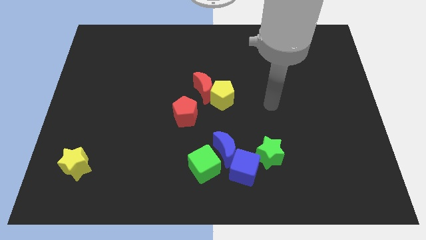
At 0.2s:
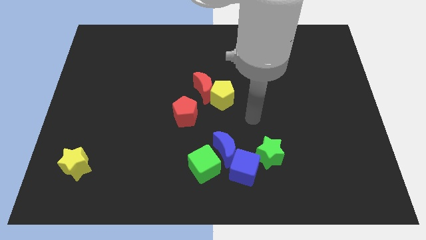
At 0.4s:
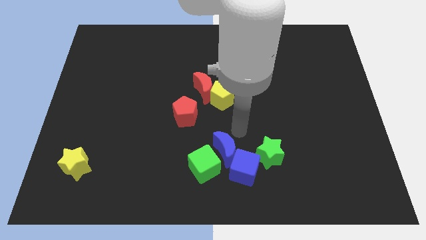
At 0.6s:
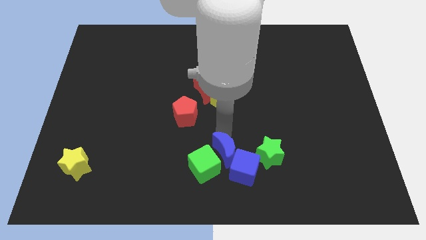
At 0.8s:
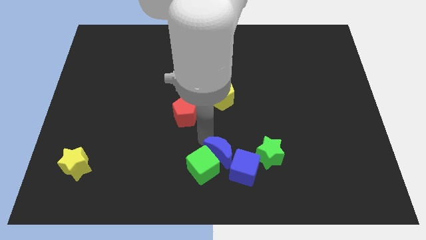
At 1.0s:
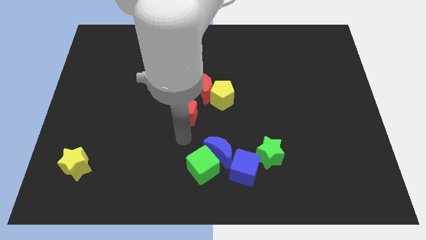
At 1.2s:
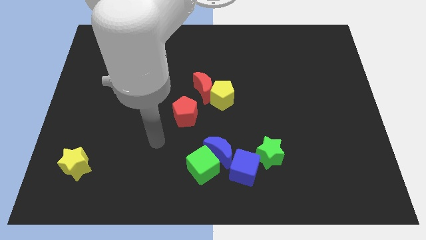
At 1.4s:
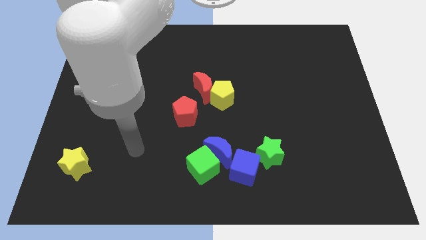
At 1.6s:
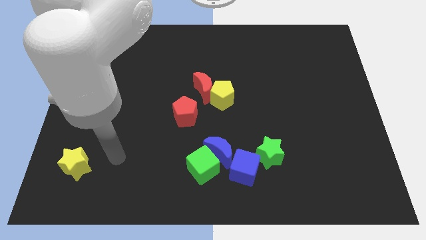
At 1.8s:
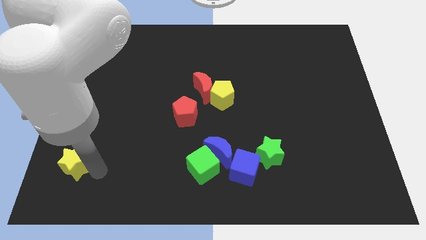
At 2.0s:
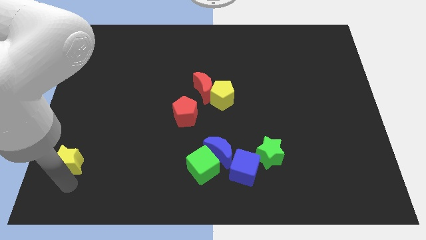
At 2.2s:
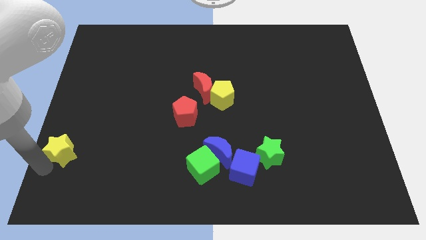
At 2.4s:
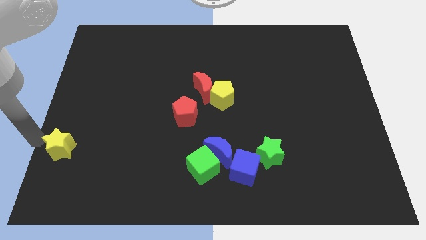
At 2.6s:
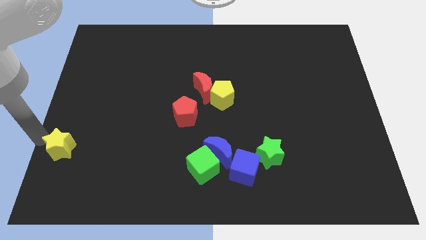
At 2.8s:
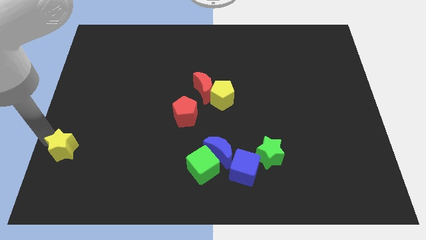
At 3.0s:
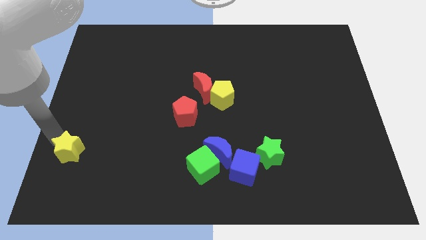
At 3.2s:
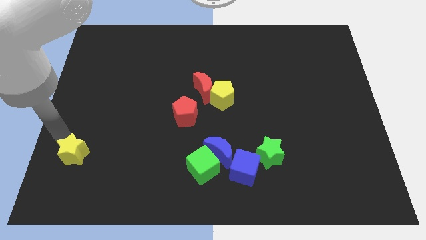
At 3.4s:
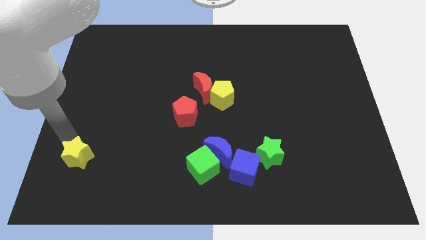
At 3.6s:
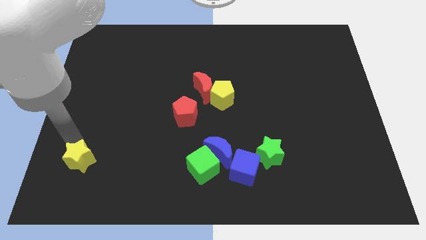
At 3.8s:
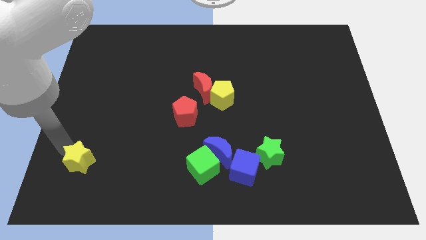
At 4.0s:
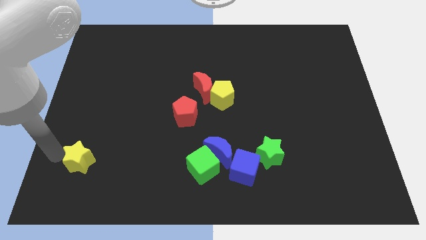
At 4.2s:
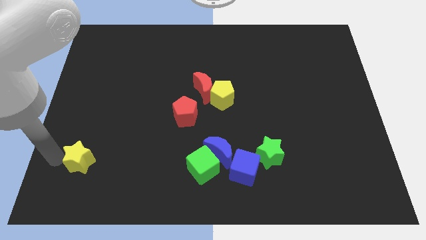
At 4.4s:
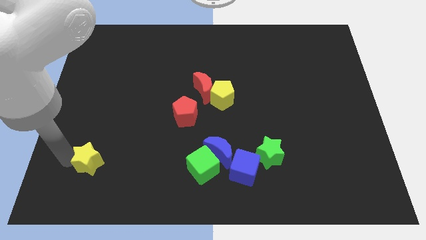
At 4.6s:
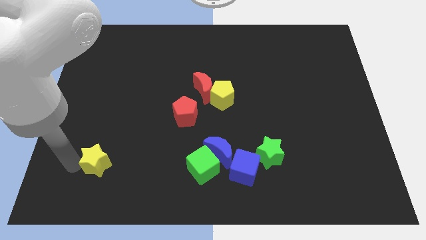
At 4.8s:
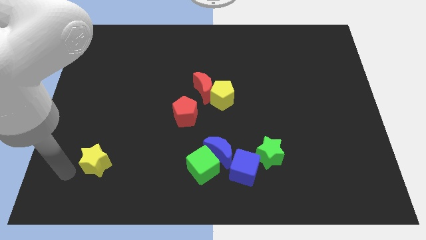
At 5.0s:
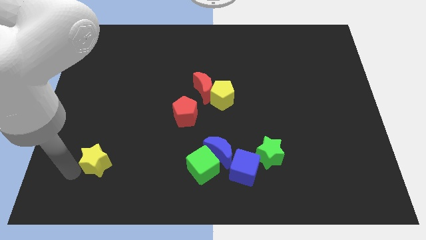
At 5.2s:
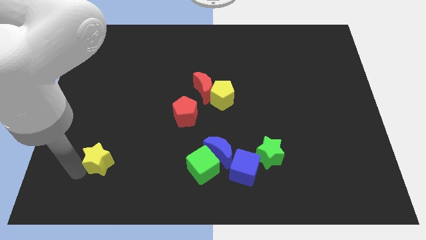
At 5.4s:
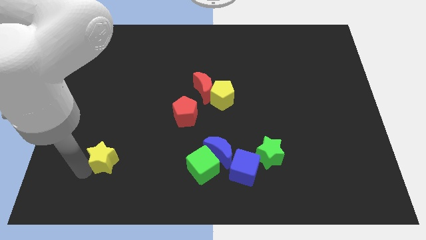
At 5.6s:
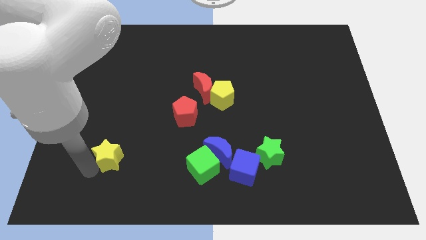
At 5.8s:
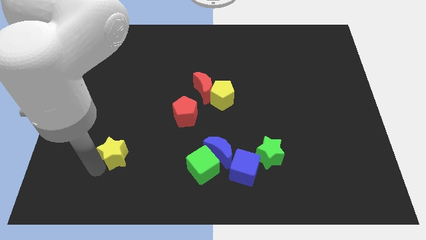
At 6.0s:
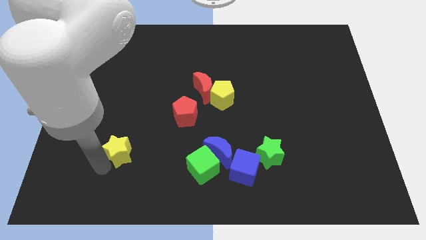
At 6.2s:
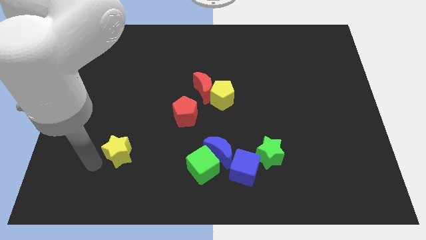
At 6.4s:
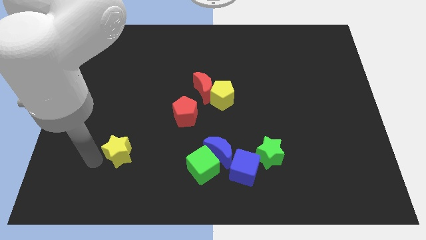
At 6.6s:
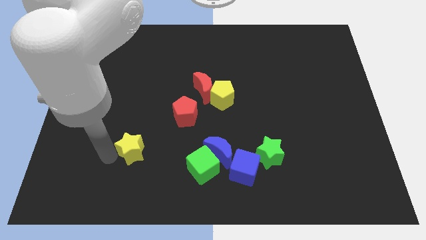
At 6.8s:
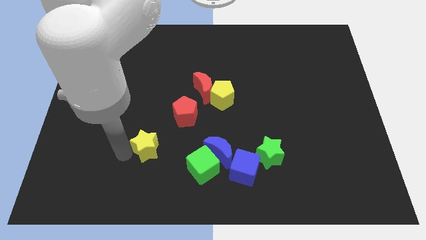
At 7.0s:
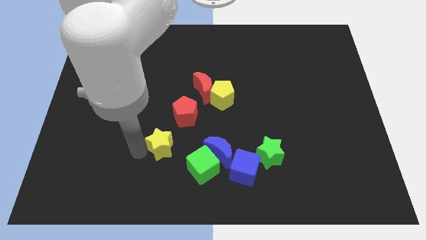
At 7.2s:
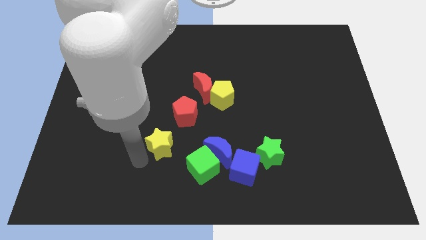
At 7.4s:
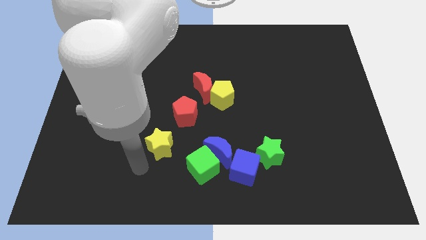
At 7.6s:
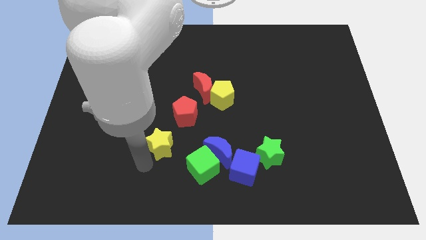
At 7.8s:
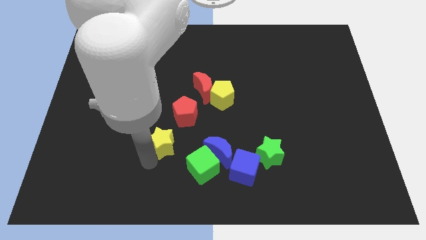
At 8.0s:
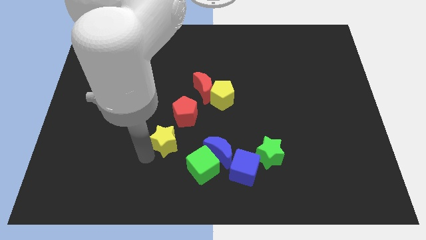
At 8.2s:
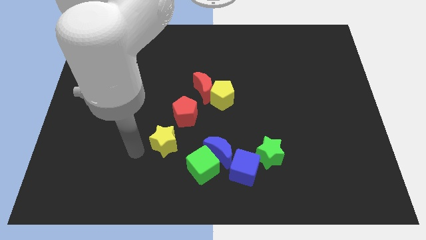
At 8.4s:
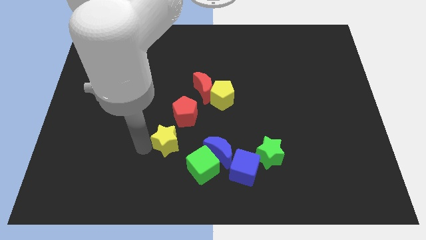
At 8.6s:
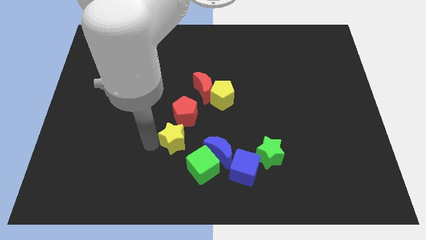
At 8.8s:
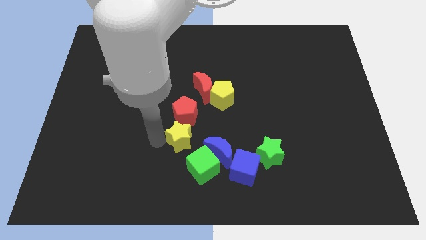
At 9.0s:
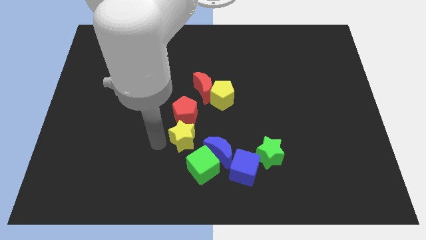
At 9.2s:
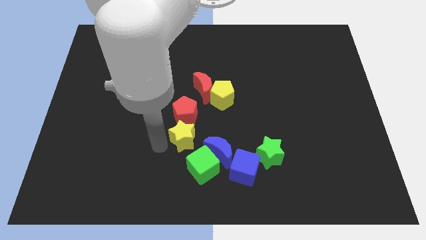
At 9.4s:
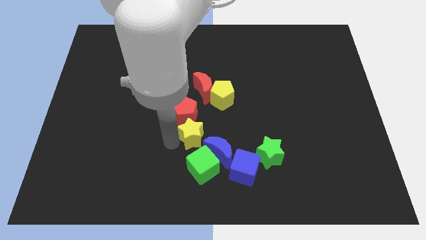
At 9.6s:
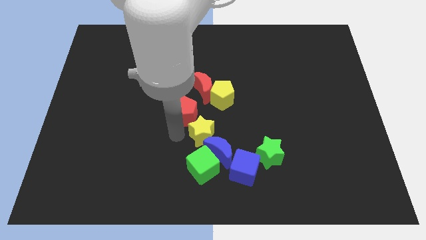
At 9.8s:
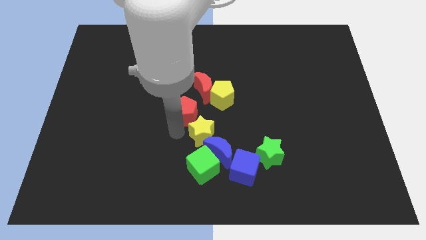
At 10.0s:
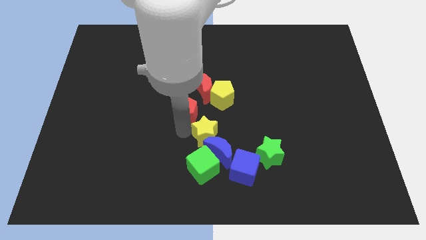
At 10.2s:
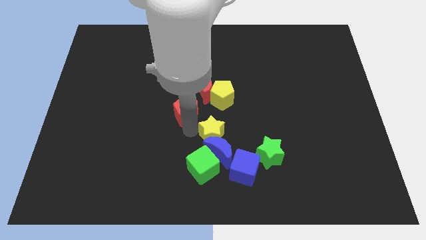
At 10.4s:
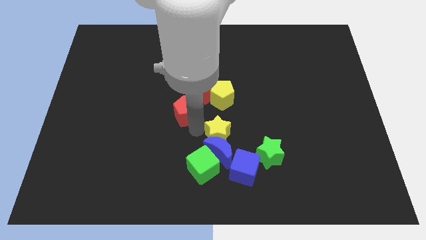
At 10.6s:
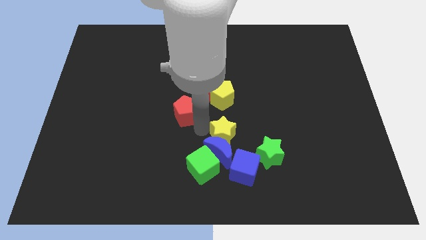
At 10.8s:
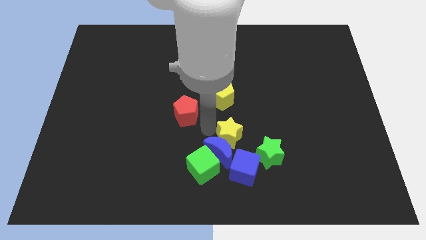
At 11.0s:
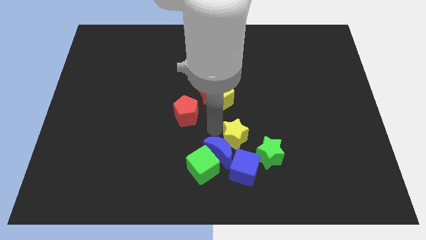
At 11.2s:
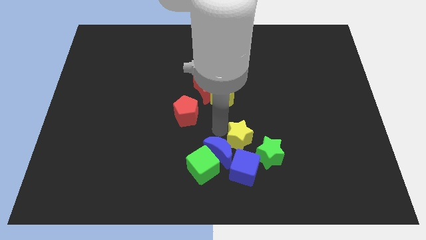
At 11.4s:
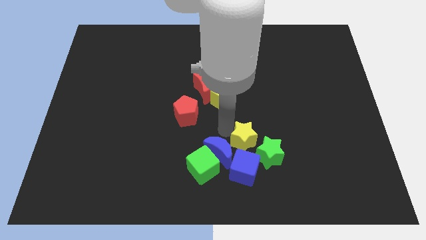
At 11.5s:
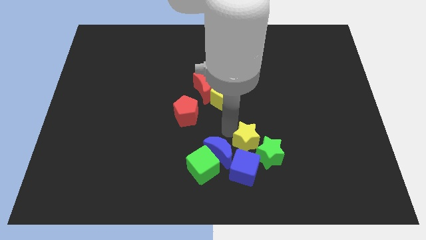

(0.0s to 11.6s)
slide the yellow star next to the green star

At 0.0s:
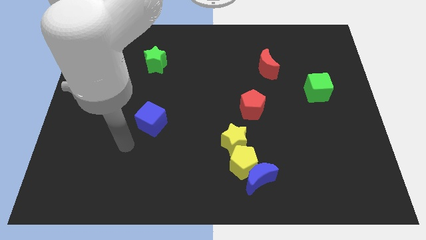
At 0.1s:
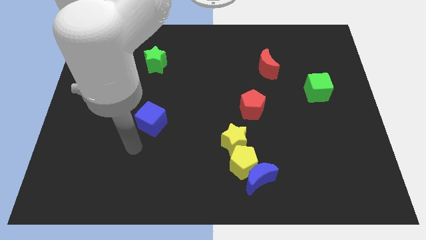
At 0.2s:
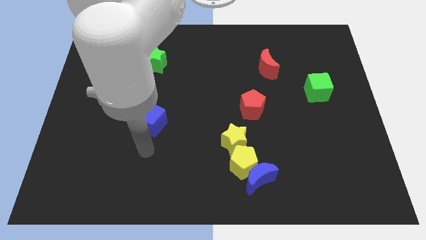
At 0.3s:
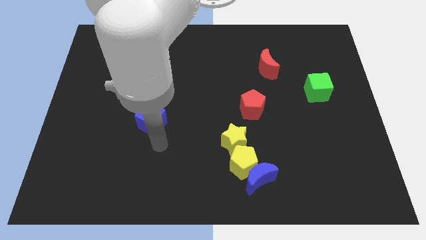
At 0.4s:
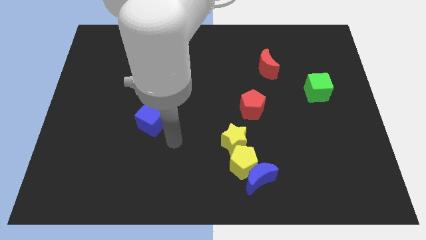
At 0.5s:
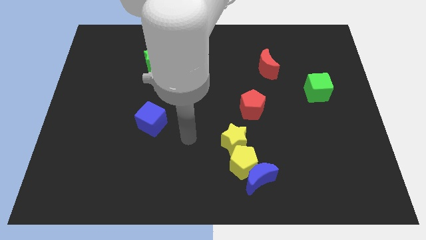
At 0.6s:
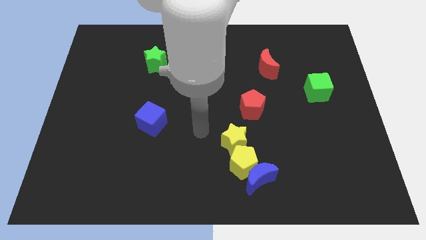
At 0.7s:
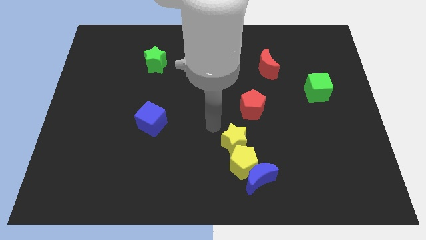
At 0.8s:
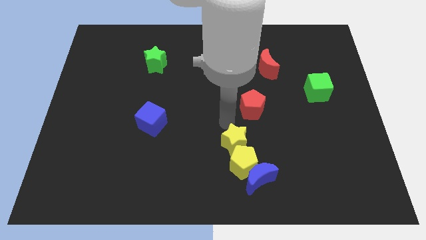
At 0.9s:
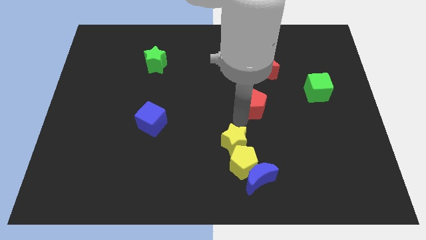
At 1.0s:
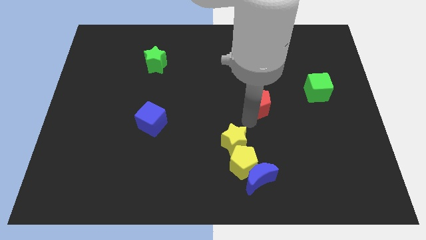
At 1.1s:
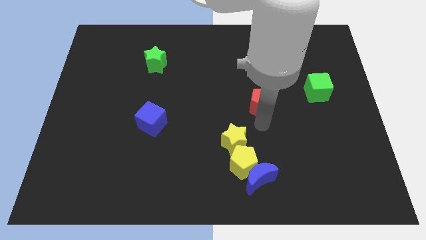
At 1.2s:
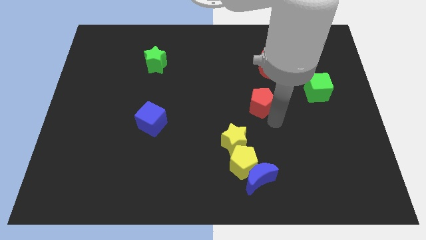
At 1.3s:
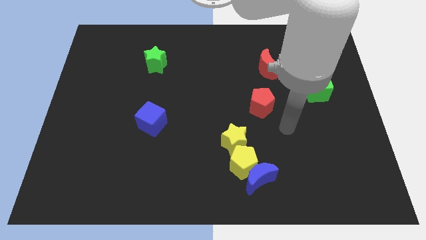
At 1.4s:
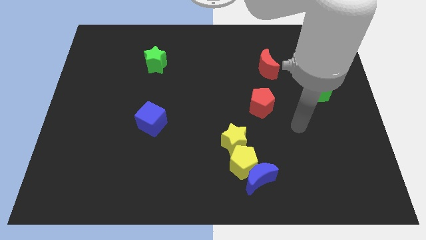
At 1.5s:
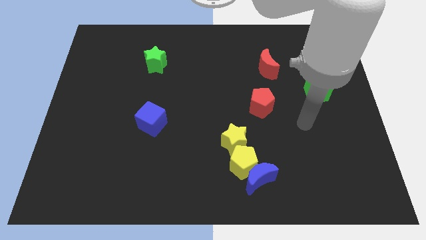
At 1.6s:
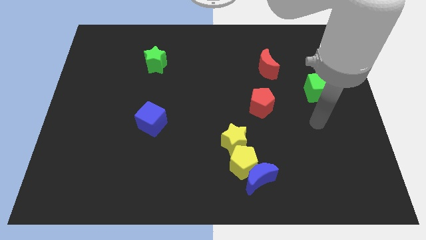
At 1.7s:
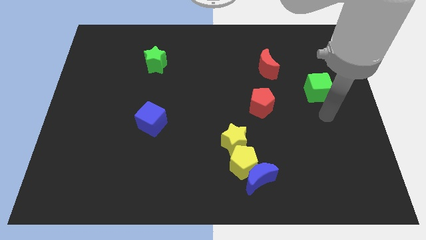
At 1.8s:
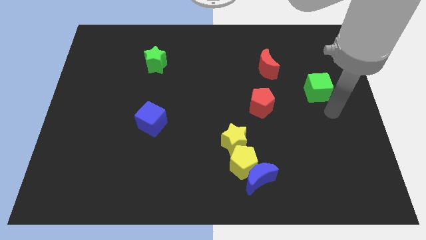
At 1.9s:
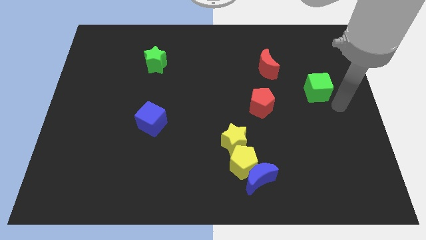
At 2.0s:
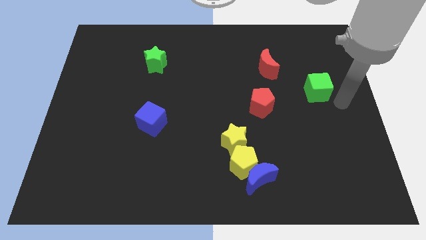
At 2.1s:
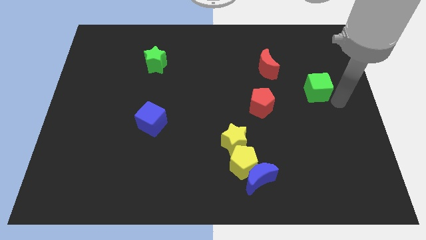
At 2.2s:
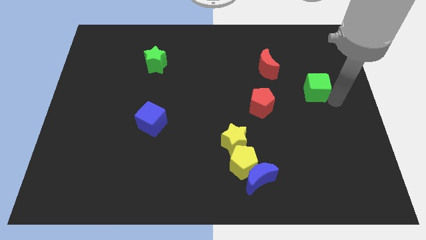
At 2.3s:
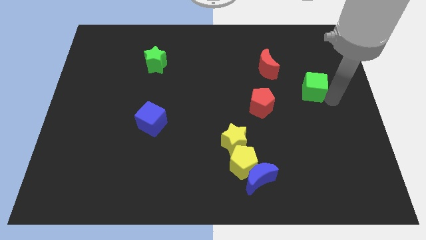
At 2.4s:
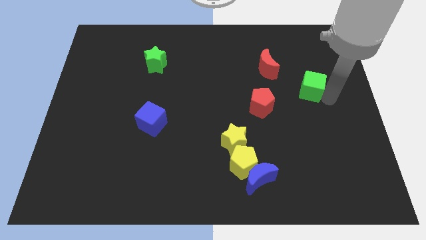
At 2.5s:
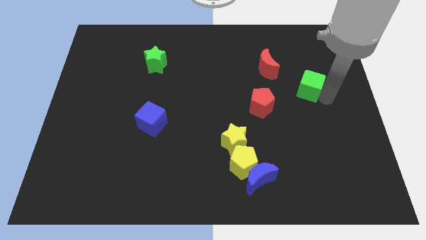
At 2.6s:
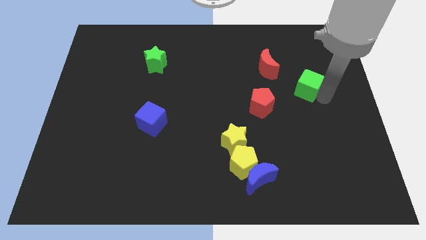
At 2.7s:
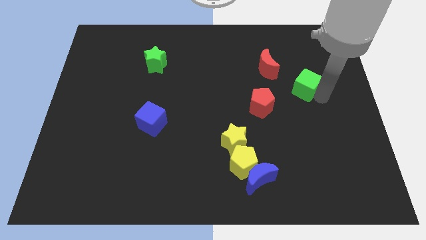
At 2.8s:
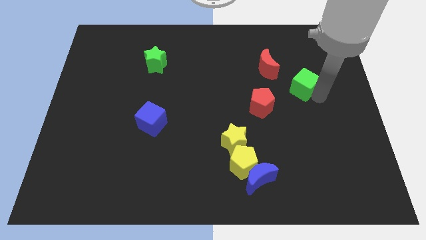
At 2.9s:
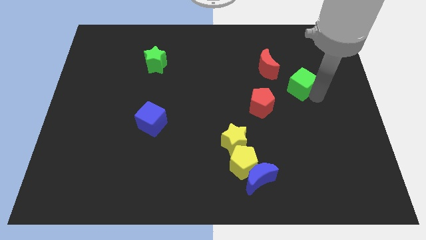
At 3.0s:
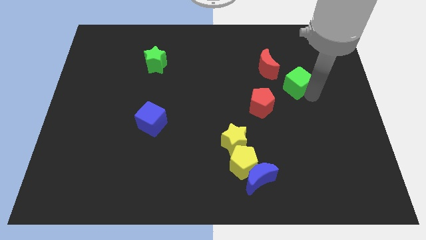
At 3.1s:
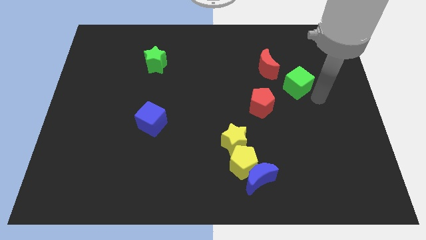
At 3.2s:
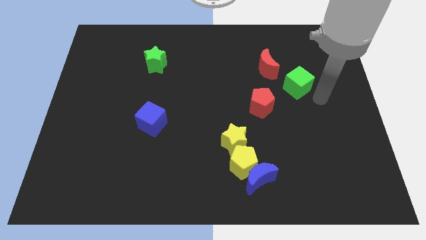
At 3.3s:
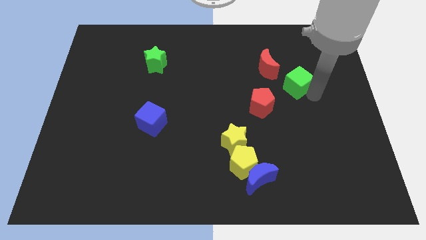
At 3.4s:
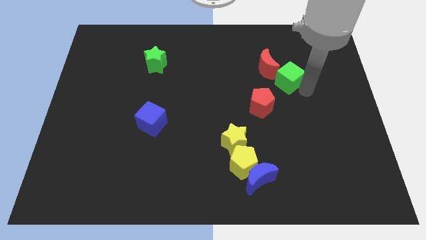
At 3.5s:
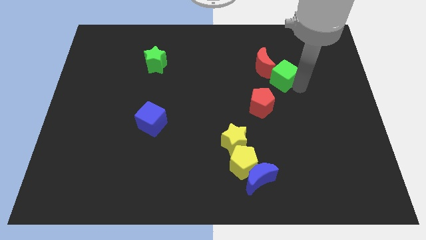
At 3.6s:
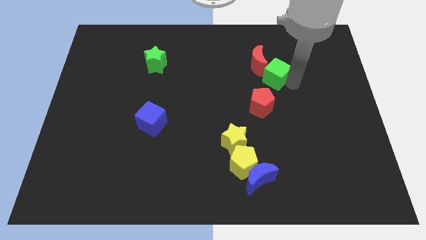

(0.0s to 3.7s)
put the green cube close to the red moon
